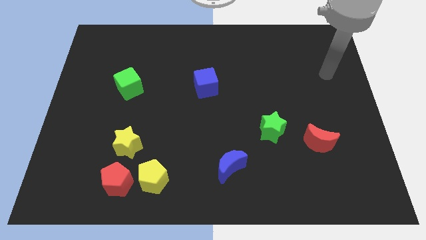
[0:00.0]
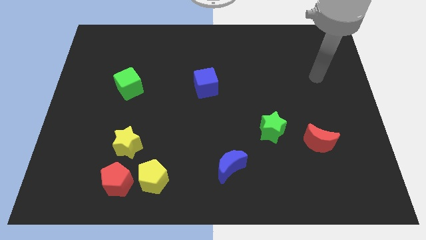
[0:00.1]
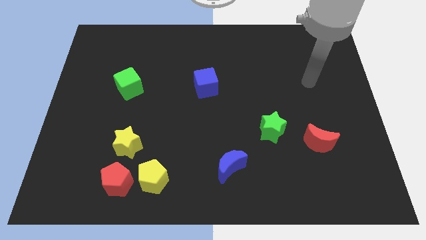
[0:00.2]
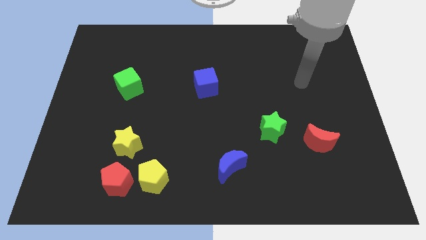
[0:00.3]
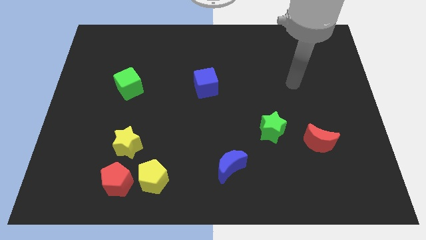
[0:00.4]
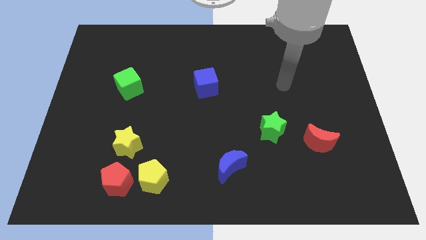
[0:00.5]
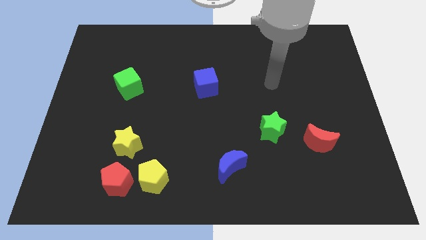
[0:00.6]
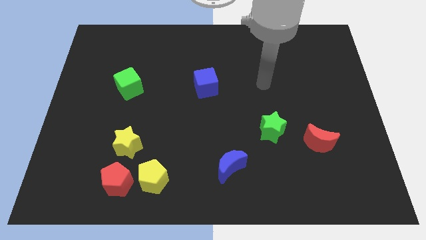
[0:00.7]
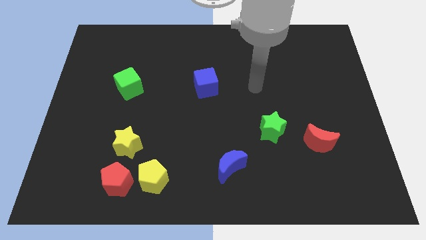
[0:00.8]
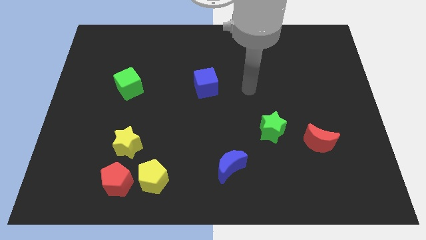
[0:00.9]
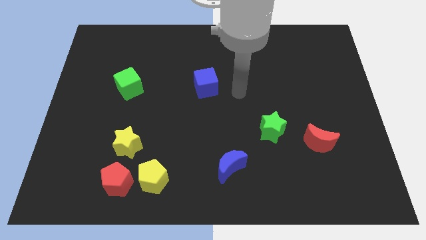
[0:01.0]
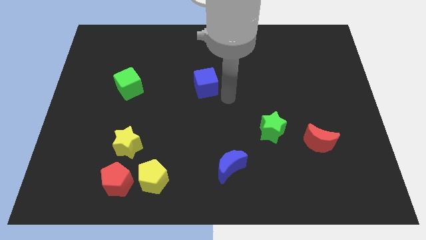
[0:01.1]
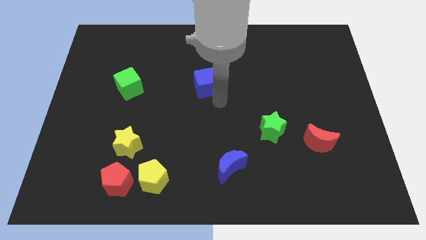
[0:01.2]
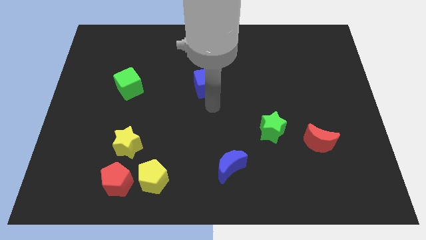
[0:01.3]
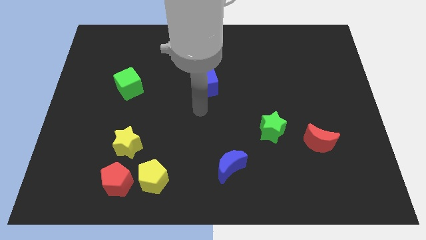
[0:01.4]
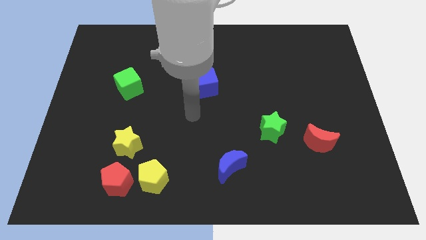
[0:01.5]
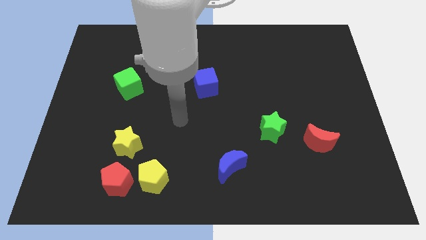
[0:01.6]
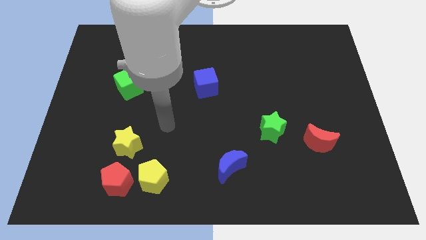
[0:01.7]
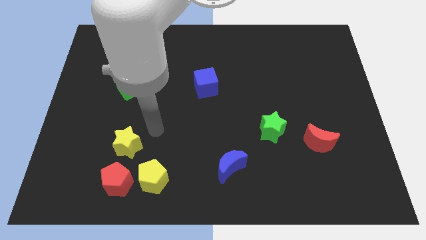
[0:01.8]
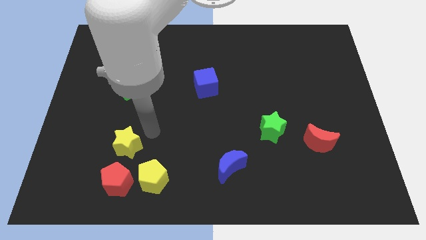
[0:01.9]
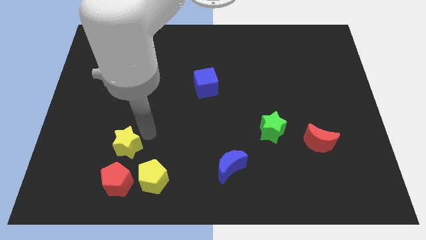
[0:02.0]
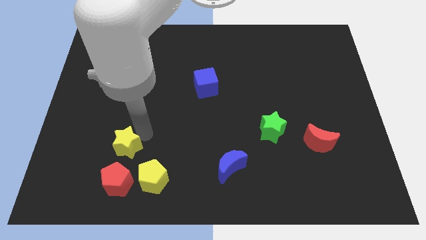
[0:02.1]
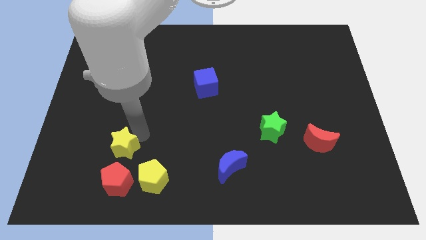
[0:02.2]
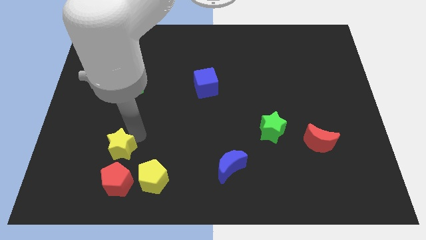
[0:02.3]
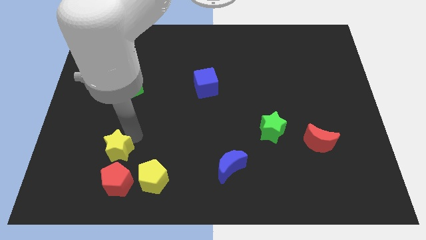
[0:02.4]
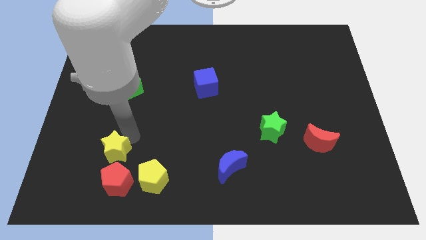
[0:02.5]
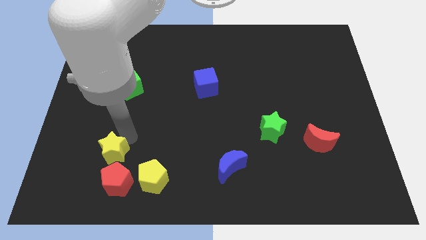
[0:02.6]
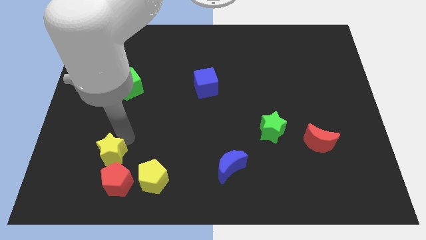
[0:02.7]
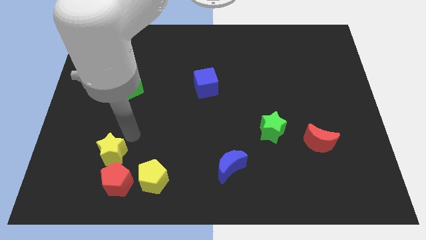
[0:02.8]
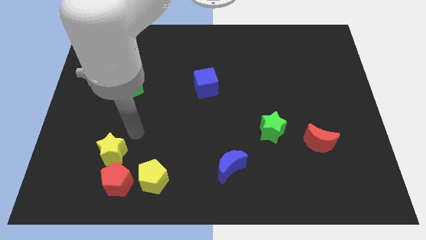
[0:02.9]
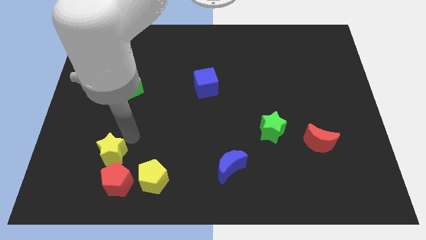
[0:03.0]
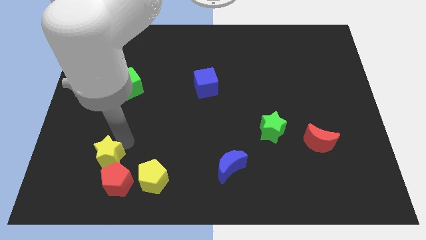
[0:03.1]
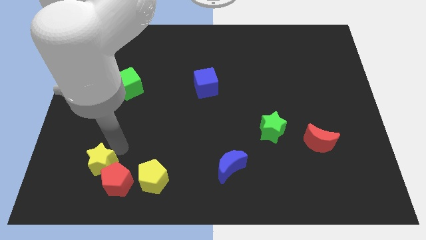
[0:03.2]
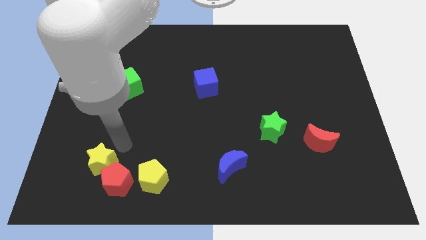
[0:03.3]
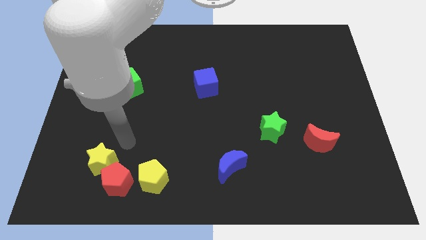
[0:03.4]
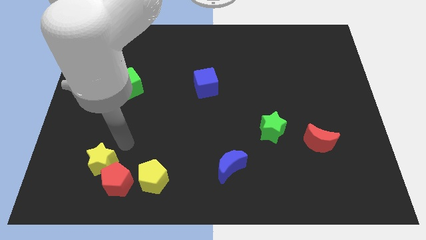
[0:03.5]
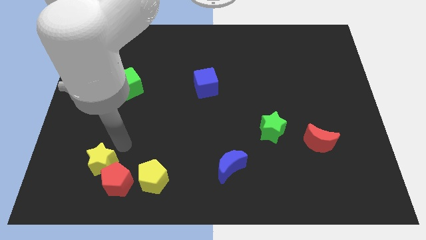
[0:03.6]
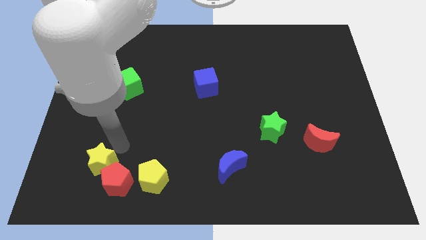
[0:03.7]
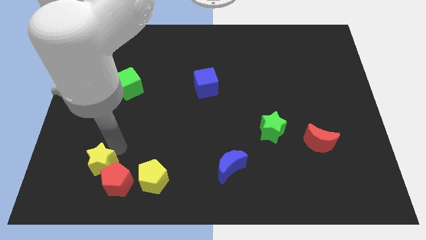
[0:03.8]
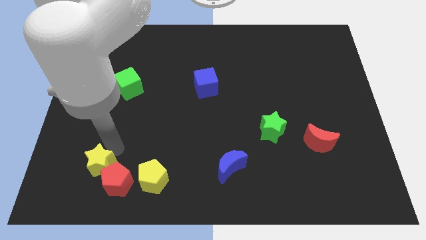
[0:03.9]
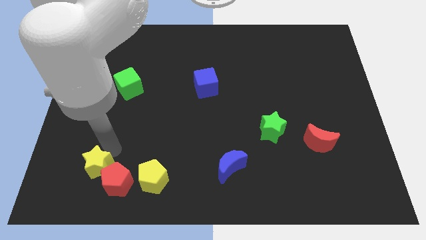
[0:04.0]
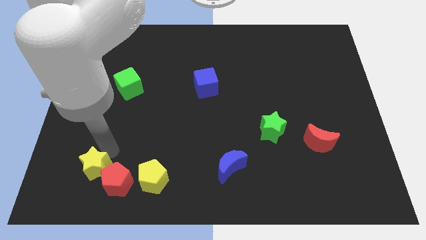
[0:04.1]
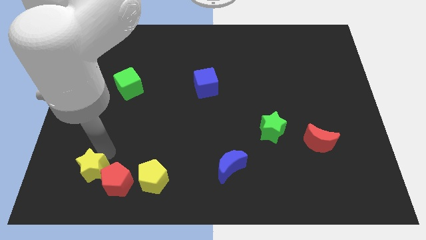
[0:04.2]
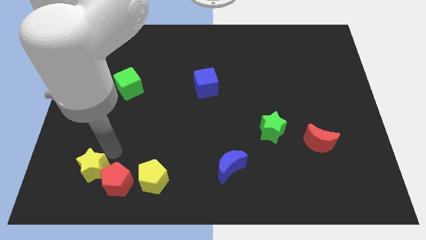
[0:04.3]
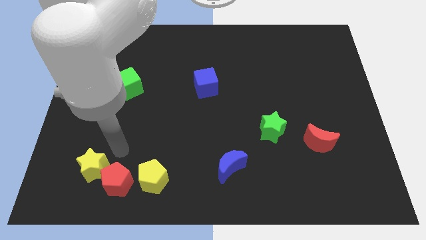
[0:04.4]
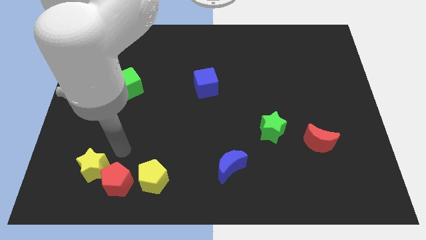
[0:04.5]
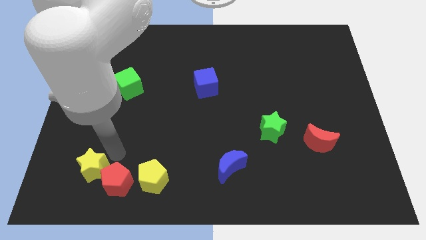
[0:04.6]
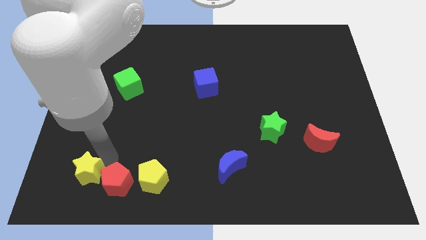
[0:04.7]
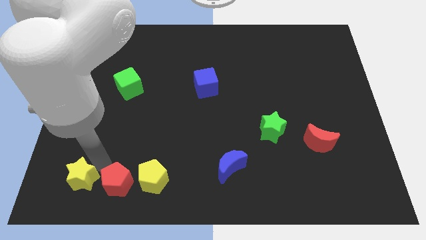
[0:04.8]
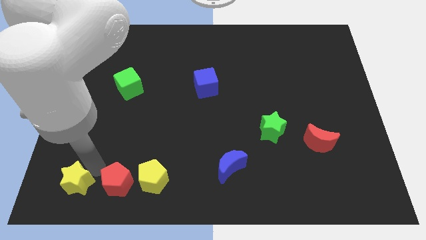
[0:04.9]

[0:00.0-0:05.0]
push the yellow star to the lower left corner

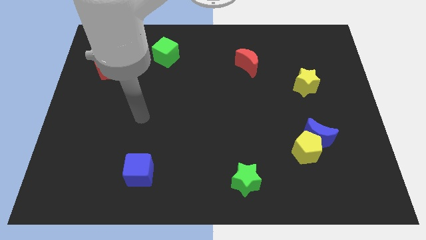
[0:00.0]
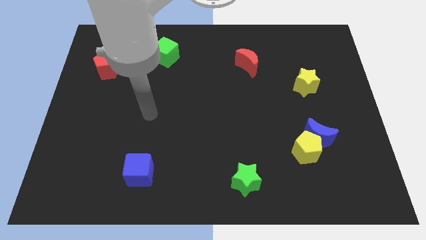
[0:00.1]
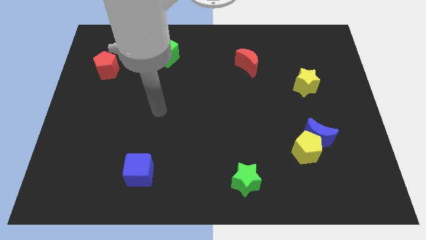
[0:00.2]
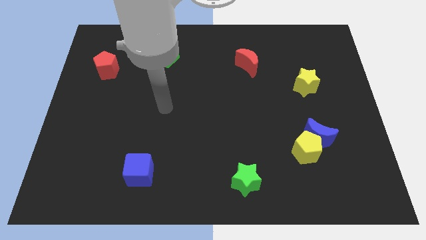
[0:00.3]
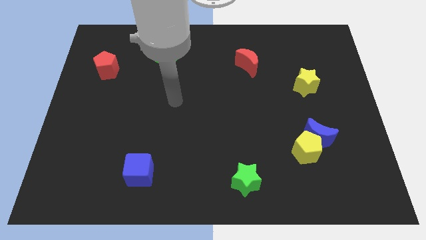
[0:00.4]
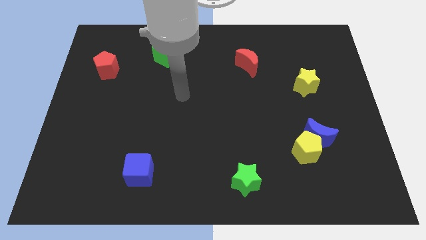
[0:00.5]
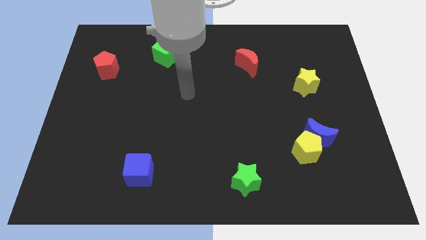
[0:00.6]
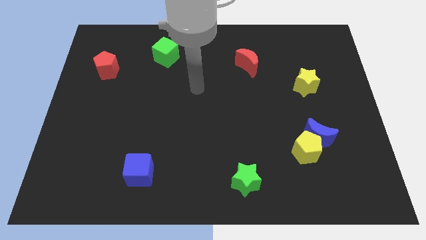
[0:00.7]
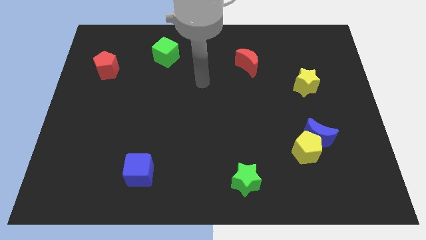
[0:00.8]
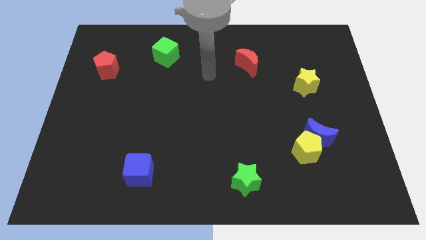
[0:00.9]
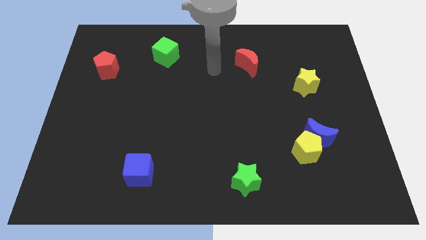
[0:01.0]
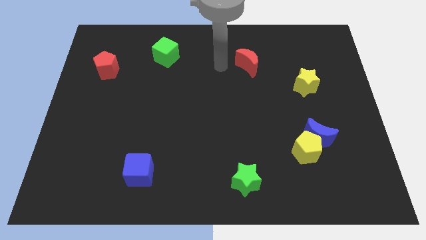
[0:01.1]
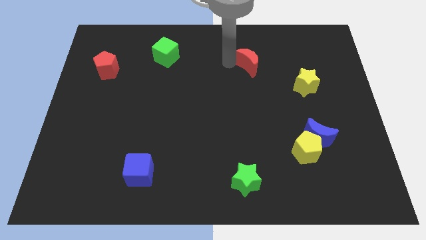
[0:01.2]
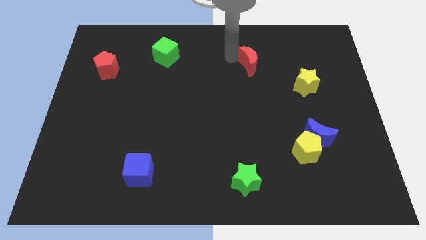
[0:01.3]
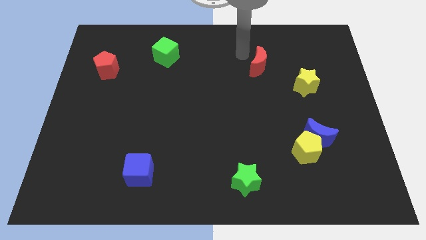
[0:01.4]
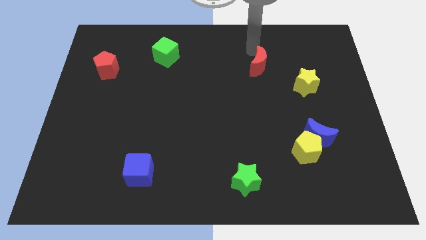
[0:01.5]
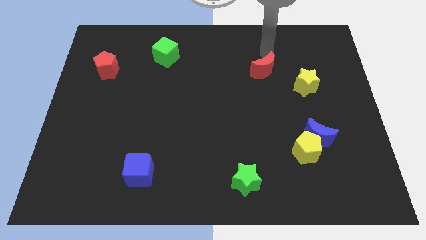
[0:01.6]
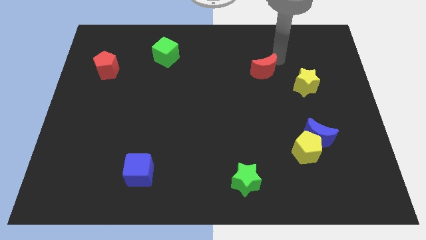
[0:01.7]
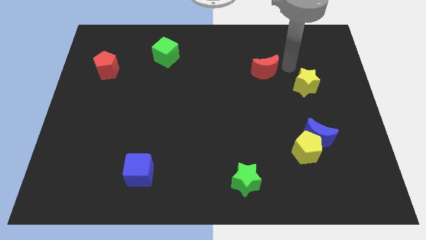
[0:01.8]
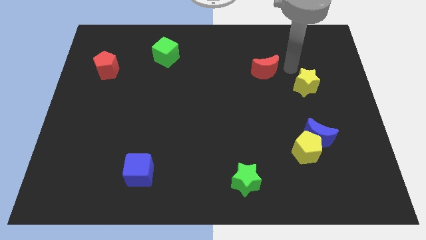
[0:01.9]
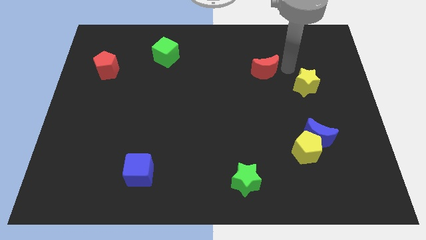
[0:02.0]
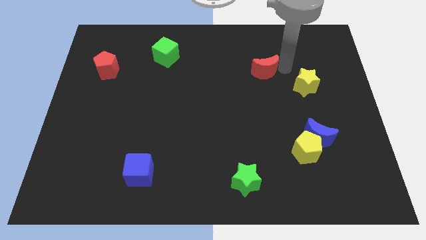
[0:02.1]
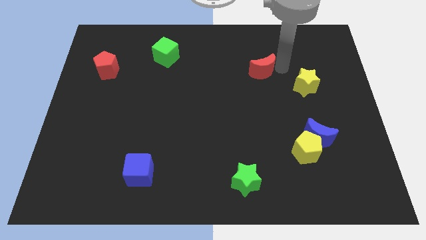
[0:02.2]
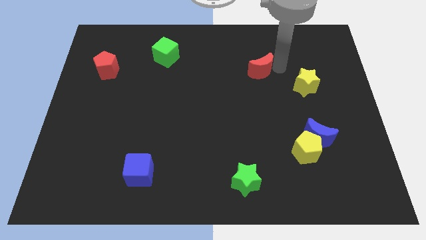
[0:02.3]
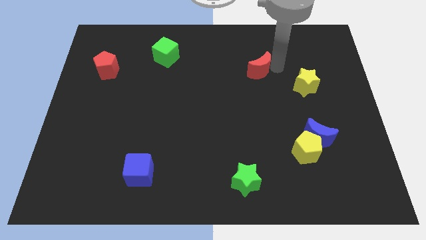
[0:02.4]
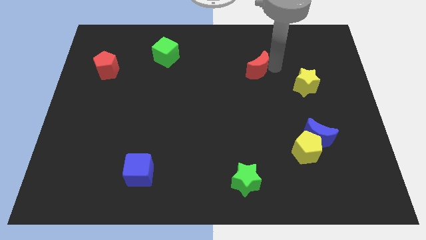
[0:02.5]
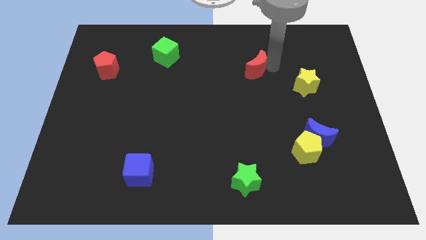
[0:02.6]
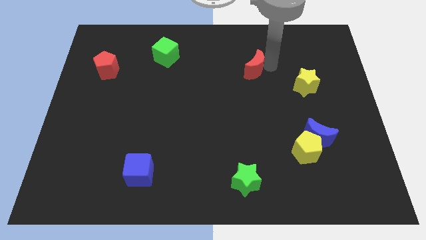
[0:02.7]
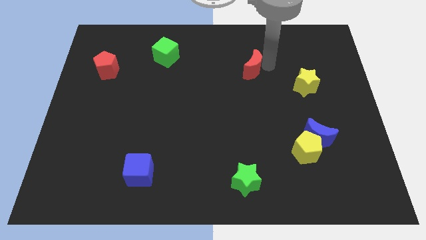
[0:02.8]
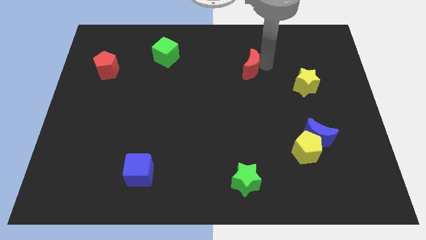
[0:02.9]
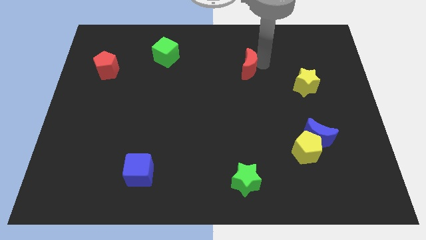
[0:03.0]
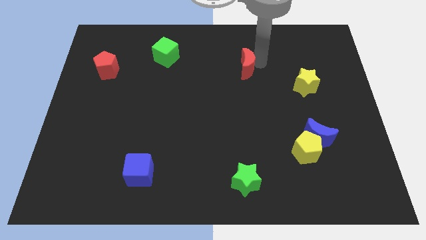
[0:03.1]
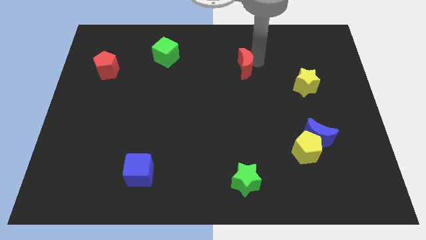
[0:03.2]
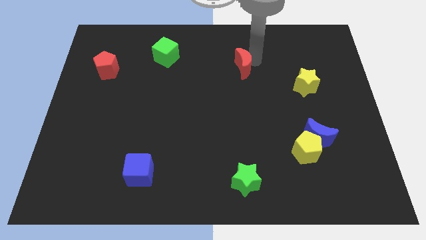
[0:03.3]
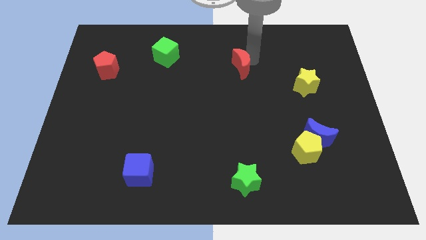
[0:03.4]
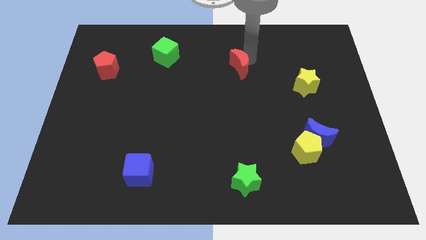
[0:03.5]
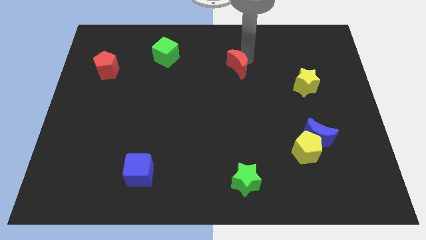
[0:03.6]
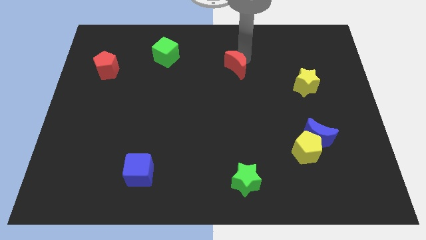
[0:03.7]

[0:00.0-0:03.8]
put the red moon to the center
